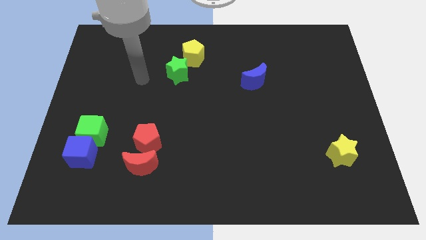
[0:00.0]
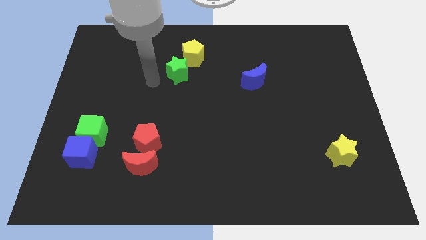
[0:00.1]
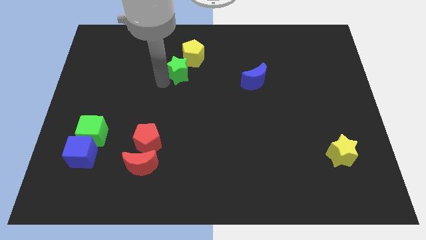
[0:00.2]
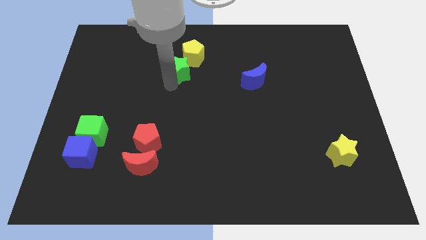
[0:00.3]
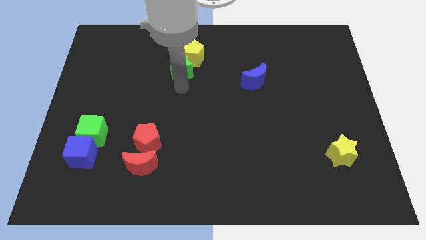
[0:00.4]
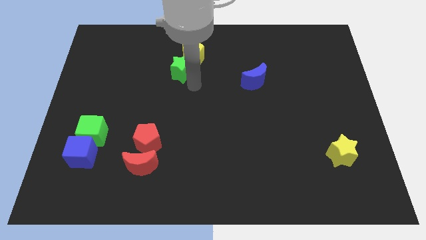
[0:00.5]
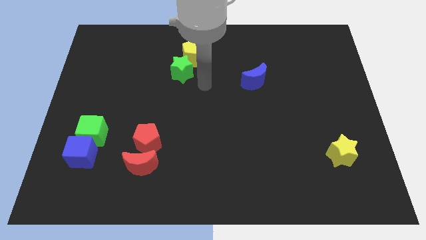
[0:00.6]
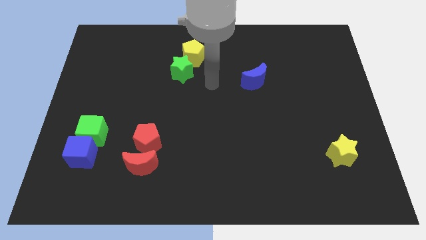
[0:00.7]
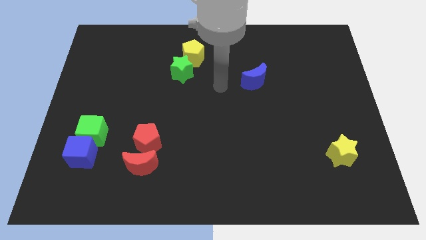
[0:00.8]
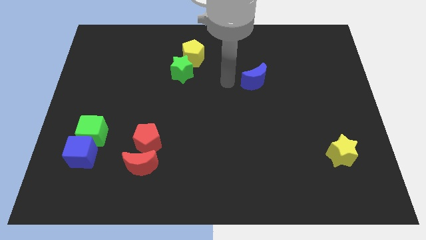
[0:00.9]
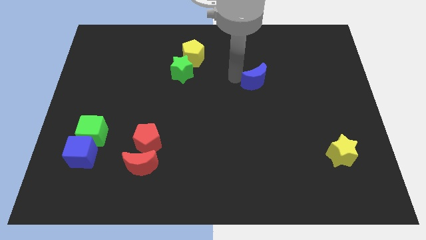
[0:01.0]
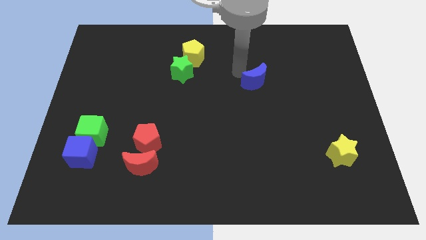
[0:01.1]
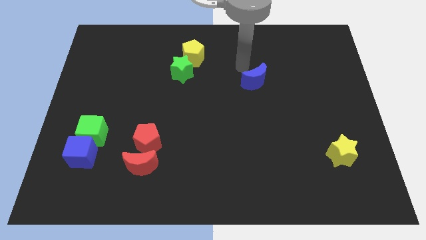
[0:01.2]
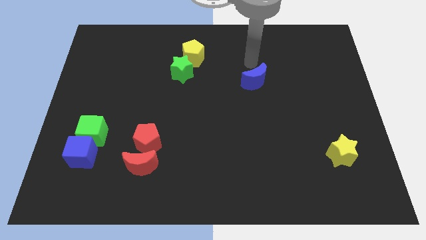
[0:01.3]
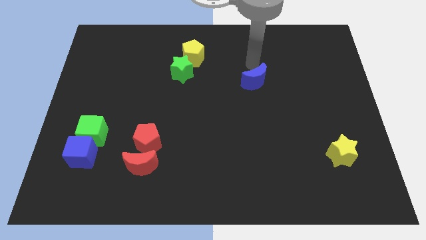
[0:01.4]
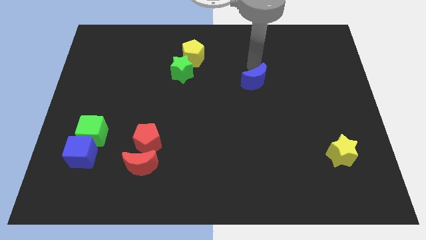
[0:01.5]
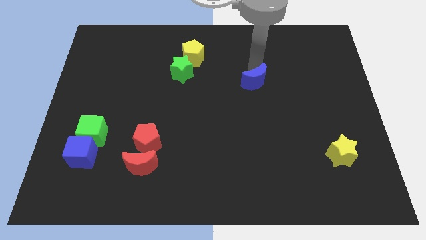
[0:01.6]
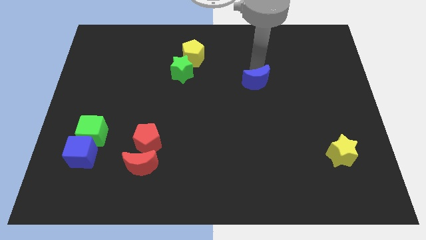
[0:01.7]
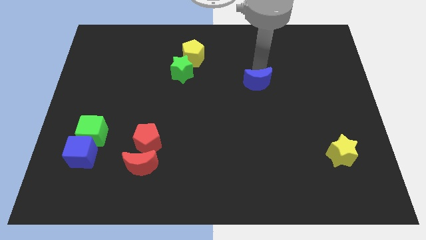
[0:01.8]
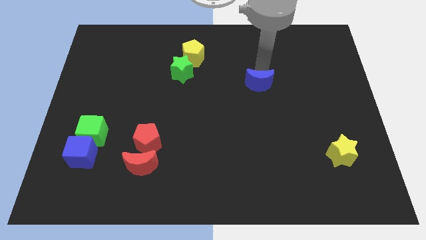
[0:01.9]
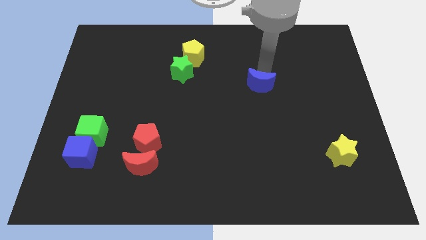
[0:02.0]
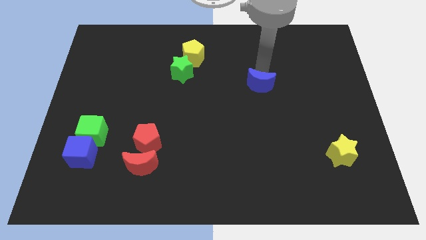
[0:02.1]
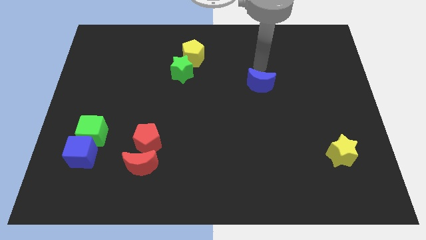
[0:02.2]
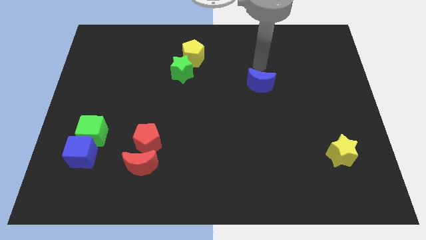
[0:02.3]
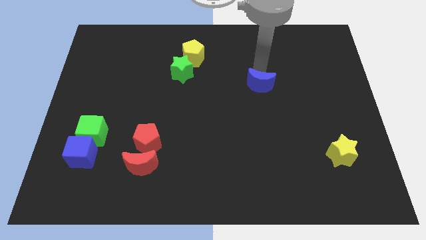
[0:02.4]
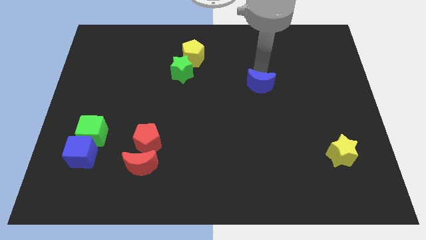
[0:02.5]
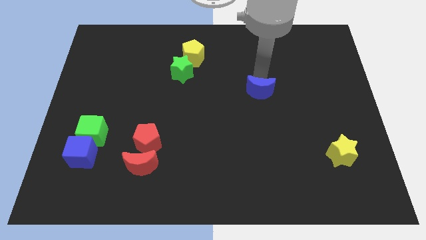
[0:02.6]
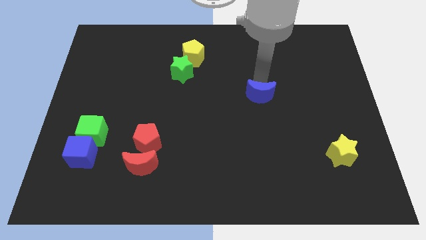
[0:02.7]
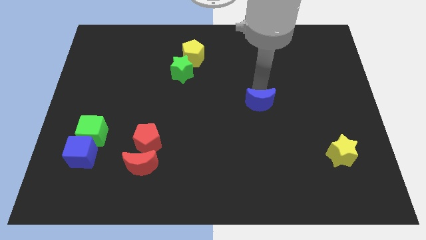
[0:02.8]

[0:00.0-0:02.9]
move the blue moon down a little bit

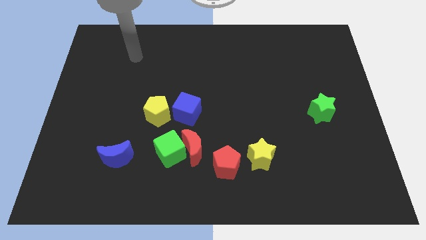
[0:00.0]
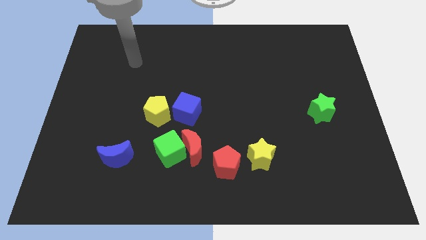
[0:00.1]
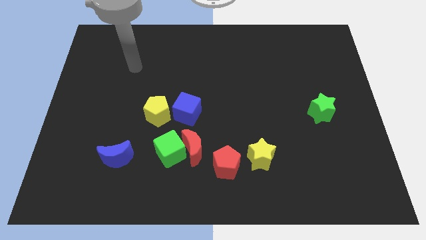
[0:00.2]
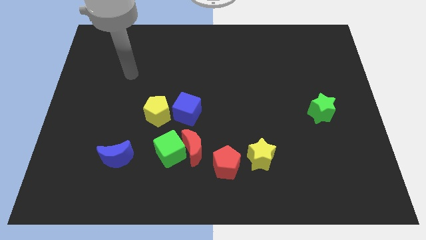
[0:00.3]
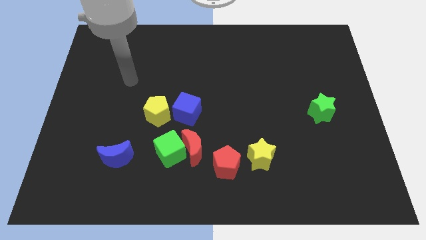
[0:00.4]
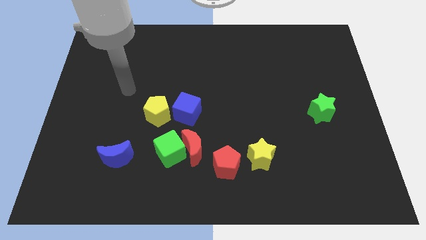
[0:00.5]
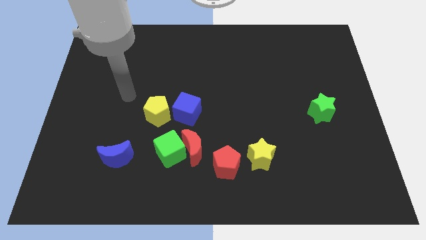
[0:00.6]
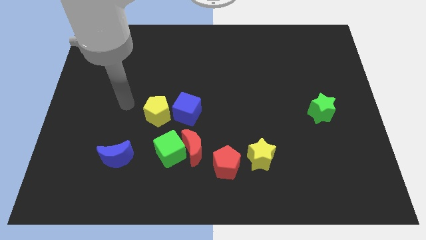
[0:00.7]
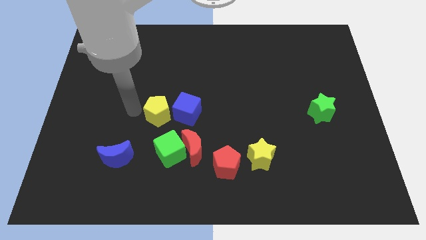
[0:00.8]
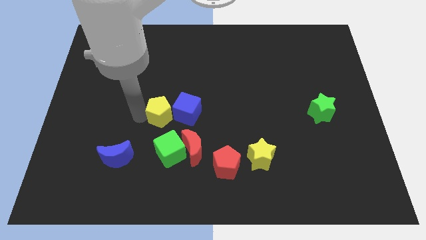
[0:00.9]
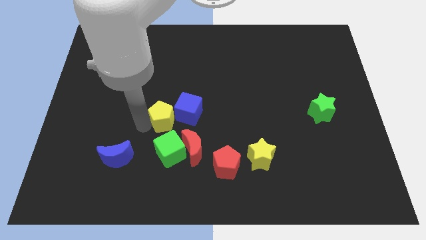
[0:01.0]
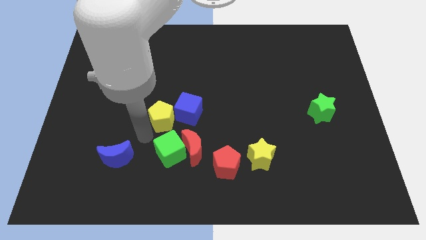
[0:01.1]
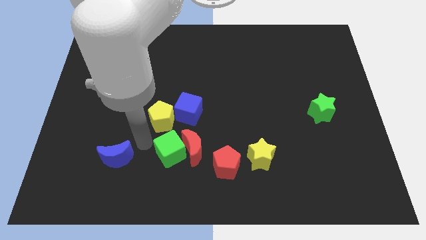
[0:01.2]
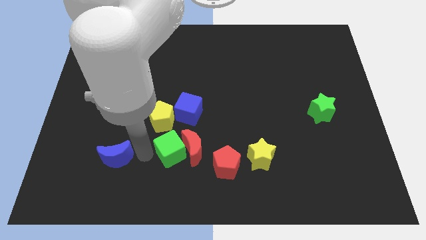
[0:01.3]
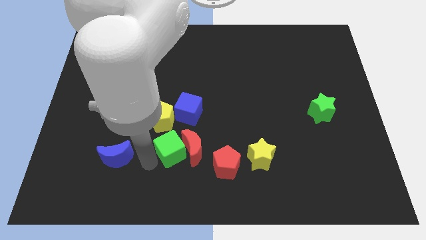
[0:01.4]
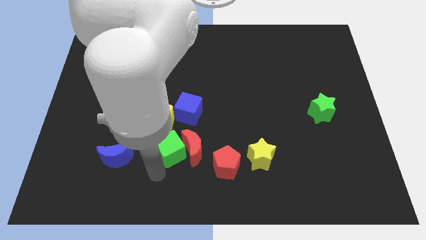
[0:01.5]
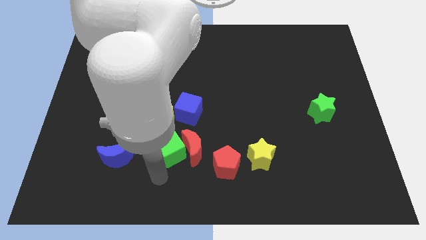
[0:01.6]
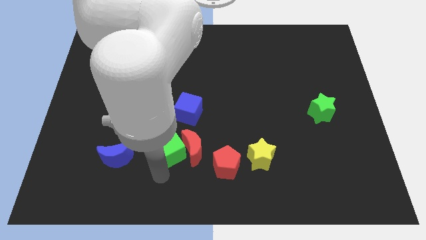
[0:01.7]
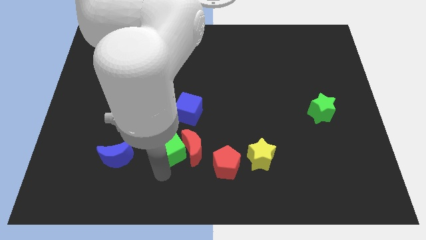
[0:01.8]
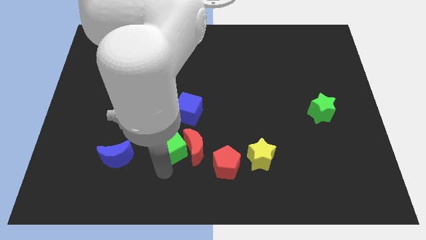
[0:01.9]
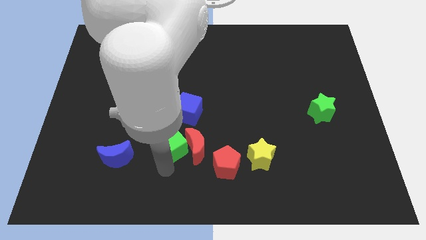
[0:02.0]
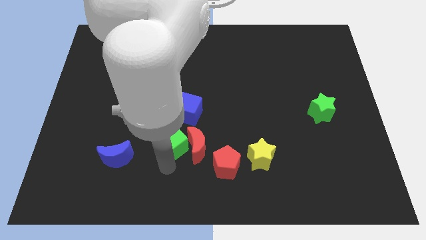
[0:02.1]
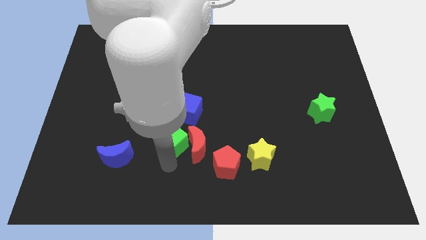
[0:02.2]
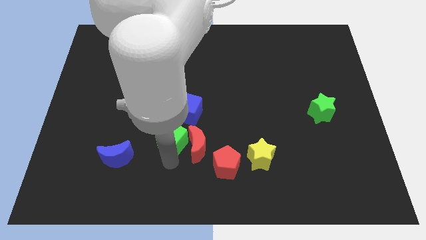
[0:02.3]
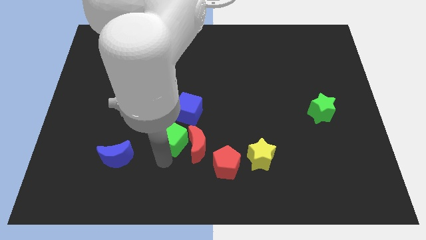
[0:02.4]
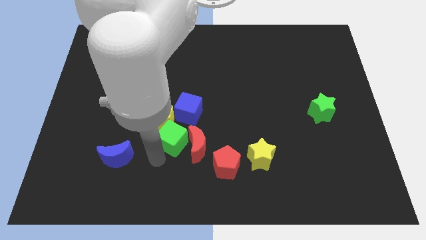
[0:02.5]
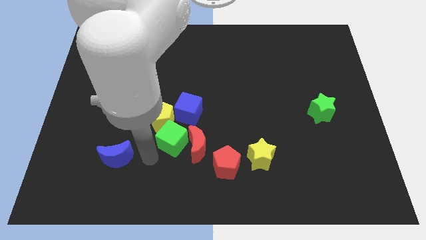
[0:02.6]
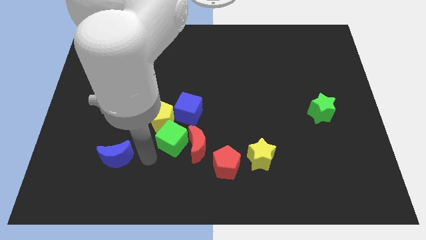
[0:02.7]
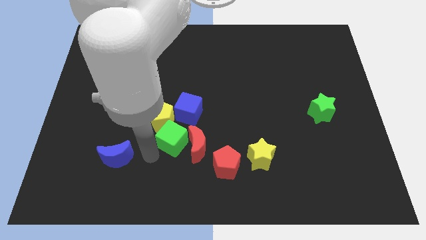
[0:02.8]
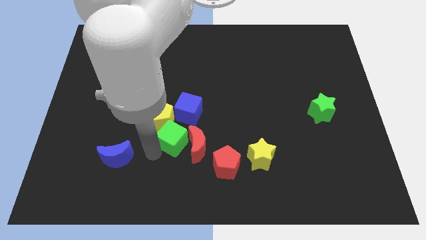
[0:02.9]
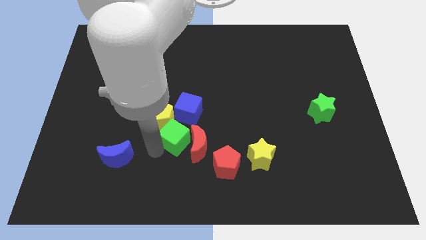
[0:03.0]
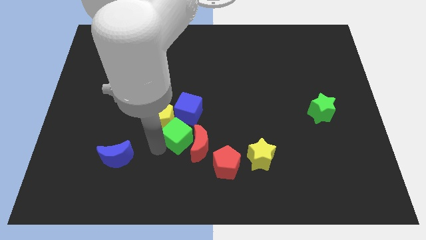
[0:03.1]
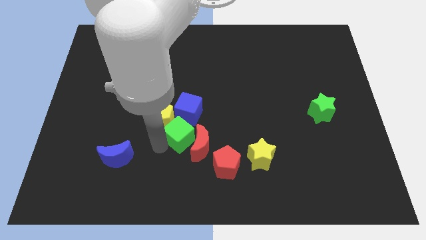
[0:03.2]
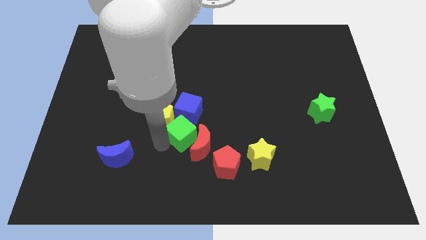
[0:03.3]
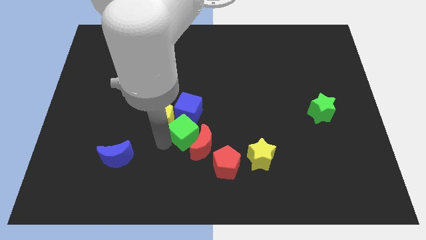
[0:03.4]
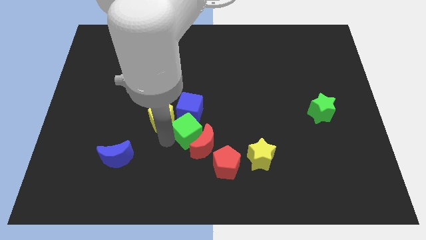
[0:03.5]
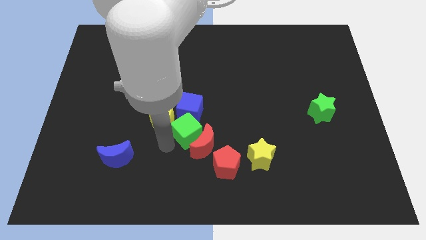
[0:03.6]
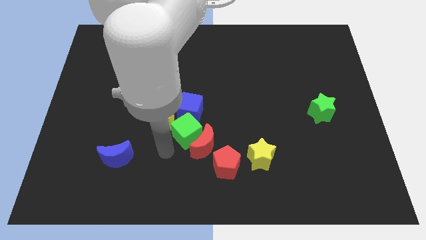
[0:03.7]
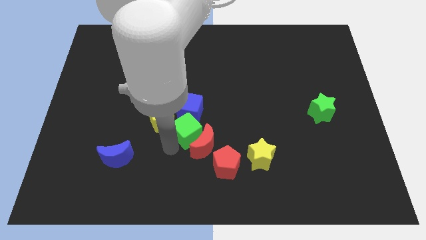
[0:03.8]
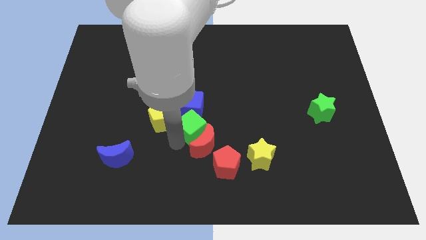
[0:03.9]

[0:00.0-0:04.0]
slightly slide the green cube upwards and right

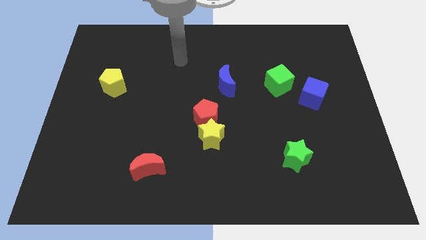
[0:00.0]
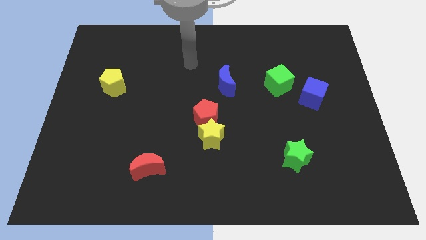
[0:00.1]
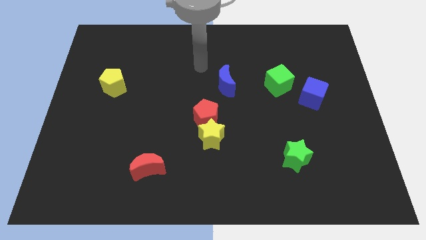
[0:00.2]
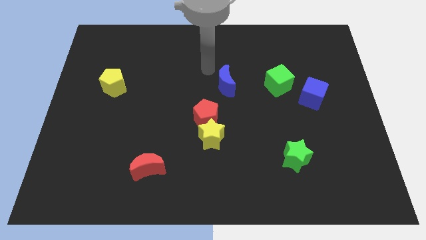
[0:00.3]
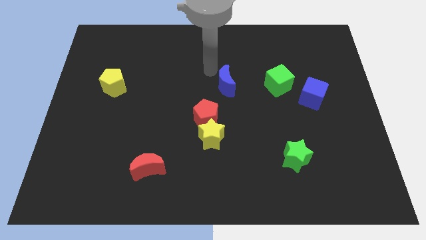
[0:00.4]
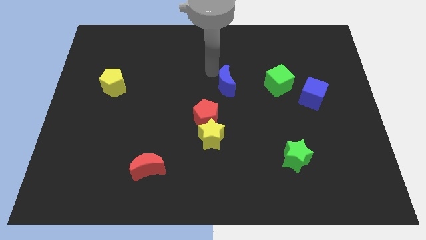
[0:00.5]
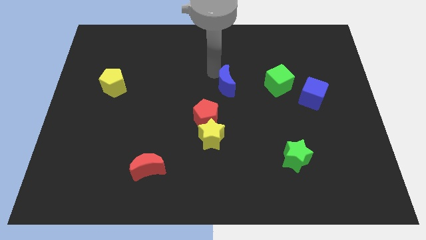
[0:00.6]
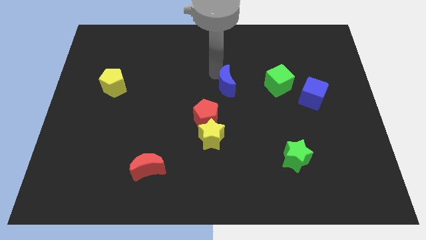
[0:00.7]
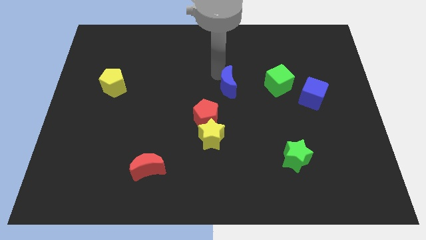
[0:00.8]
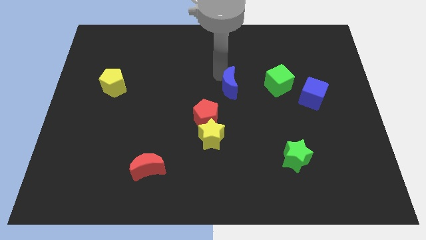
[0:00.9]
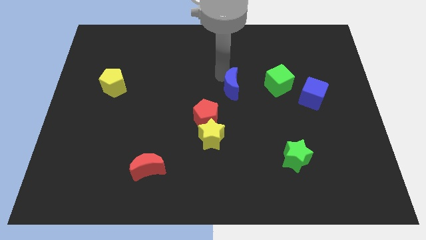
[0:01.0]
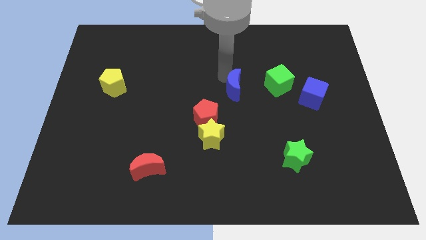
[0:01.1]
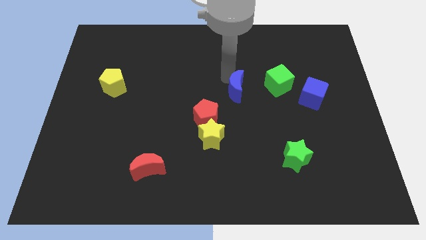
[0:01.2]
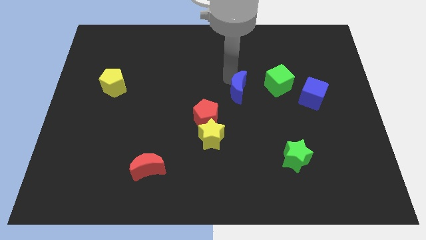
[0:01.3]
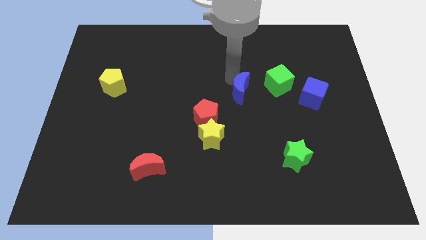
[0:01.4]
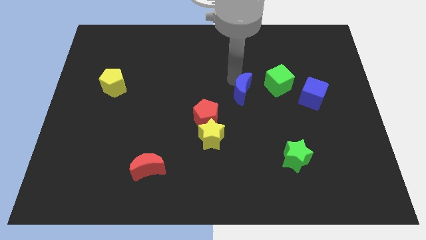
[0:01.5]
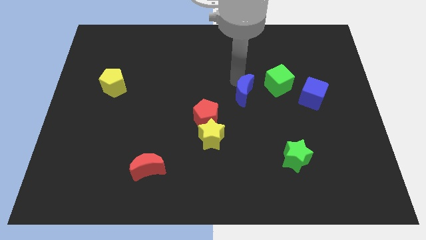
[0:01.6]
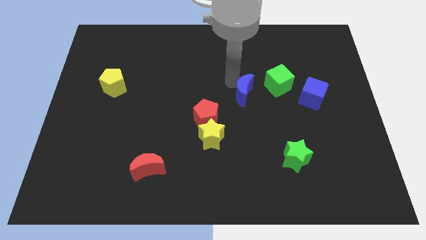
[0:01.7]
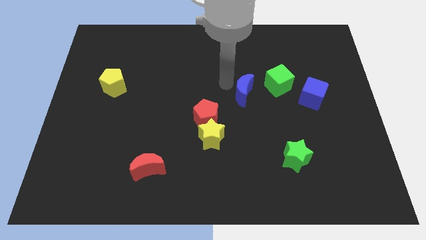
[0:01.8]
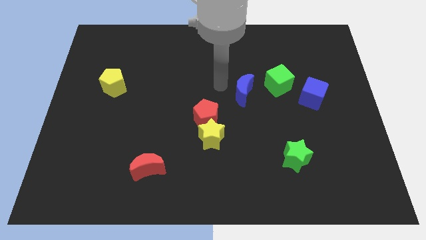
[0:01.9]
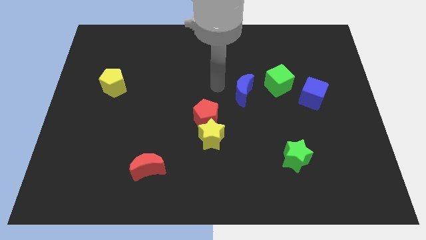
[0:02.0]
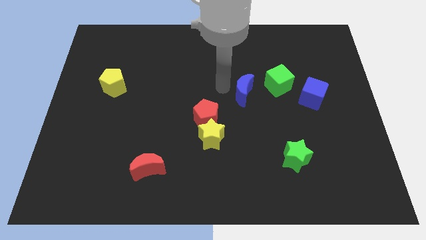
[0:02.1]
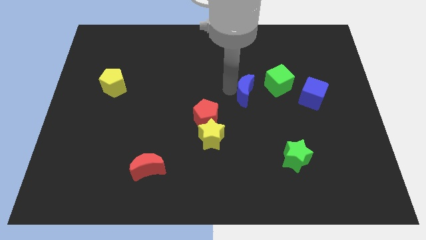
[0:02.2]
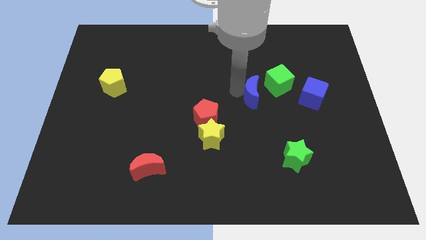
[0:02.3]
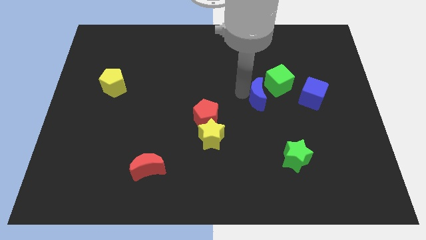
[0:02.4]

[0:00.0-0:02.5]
slightly move the blue moon to the right
